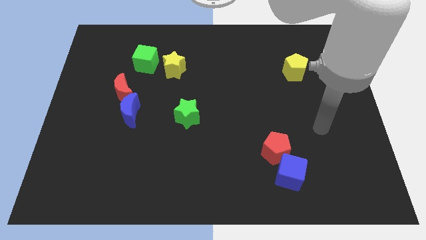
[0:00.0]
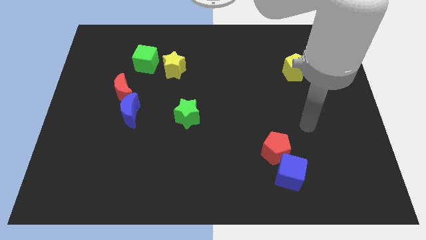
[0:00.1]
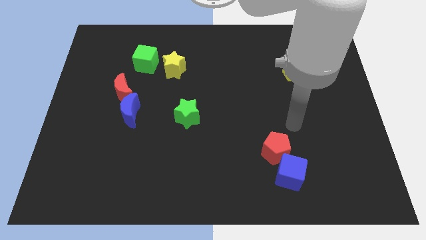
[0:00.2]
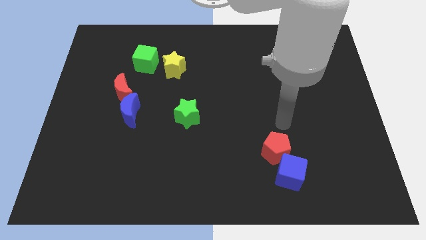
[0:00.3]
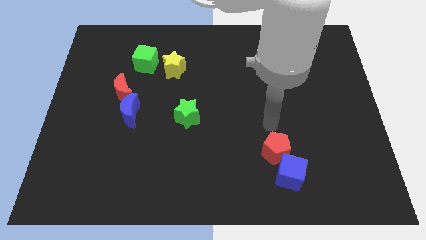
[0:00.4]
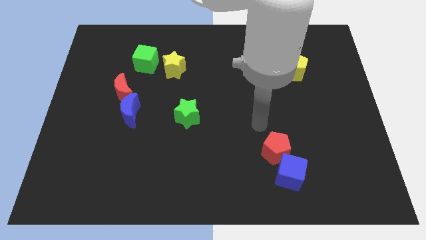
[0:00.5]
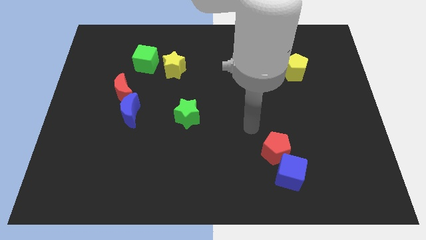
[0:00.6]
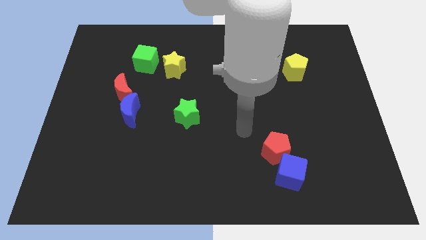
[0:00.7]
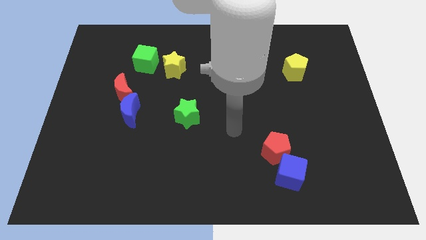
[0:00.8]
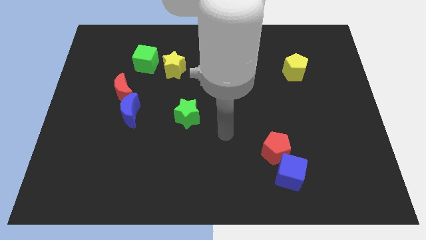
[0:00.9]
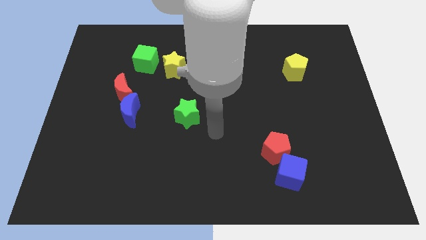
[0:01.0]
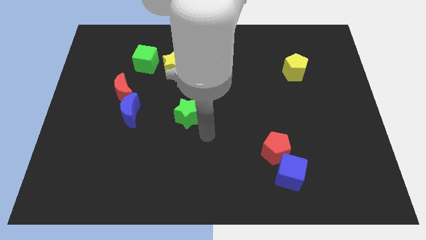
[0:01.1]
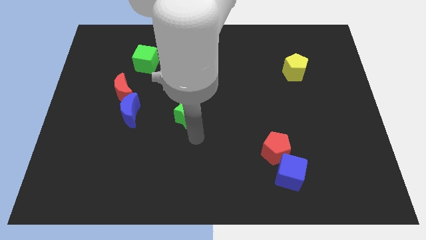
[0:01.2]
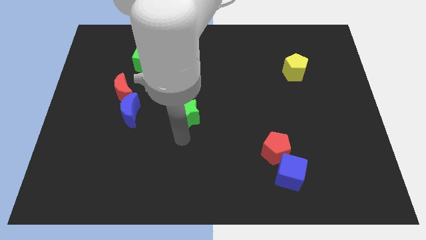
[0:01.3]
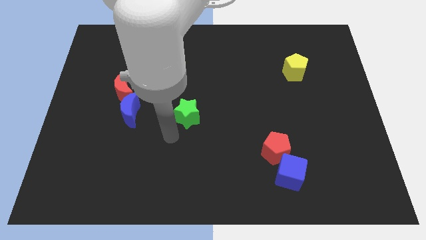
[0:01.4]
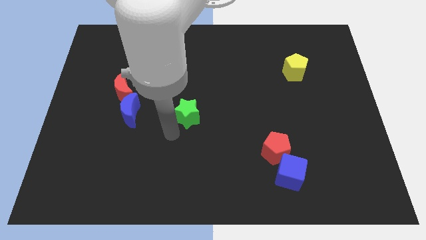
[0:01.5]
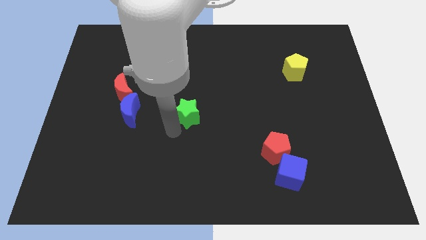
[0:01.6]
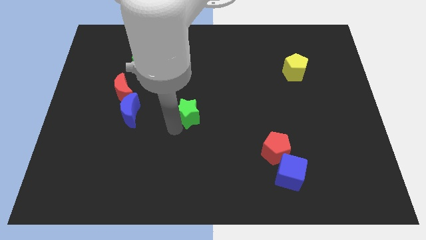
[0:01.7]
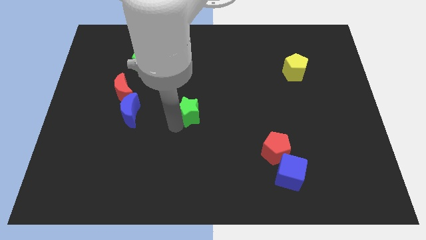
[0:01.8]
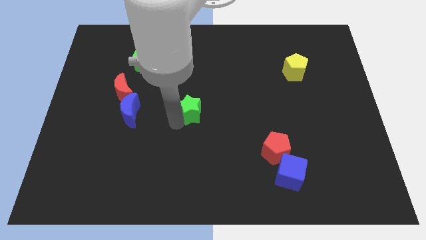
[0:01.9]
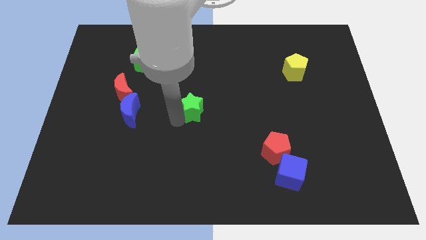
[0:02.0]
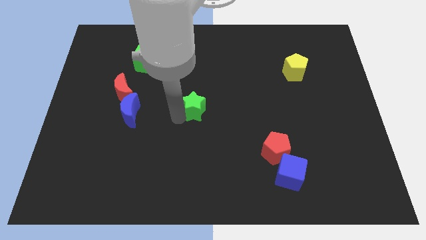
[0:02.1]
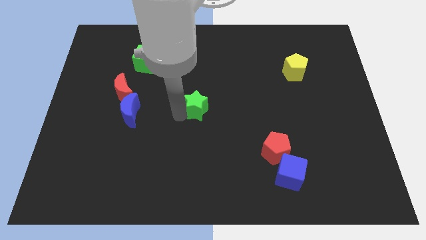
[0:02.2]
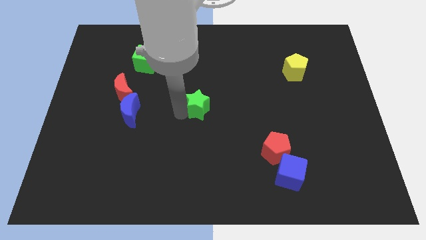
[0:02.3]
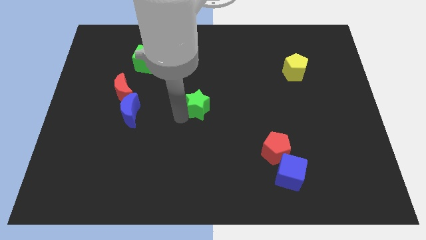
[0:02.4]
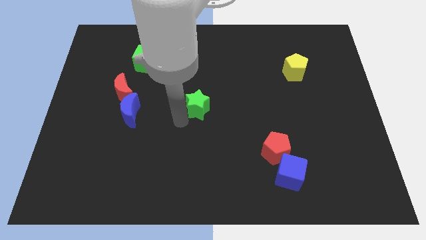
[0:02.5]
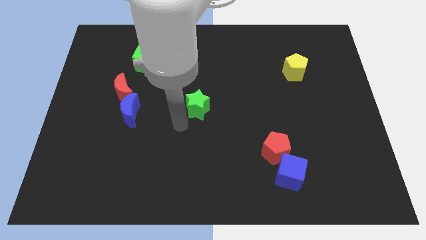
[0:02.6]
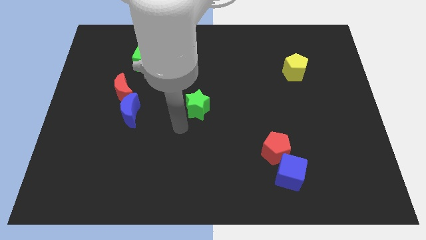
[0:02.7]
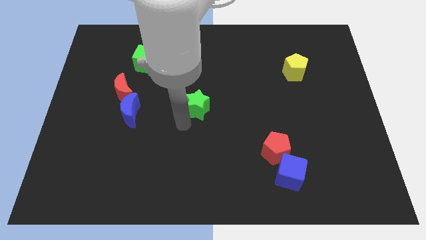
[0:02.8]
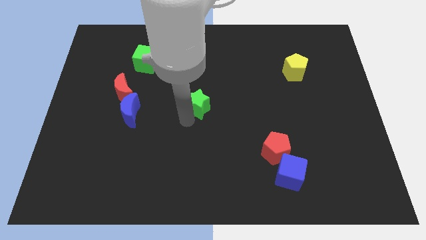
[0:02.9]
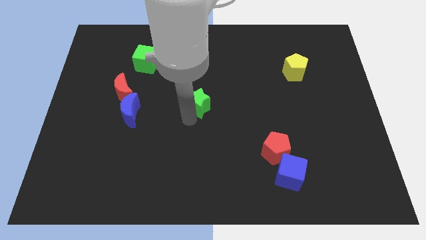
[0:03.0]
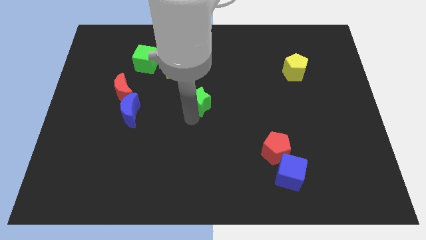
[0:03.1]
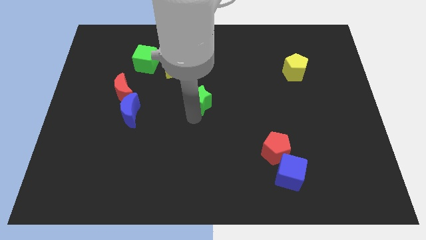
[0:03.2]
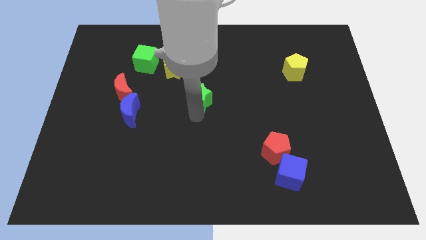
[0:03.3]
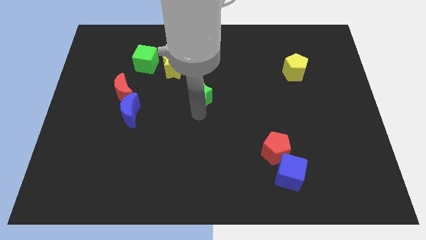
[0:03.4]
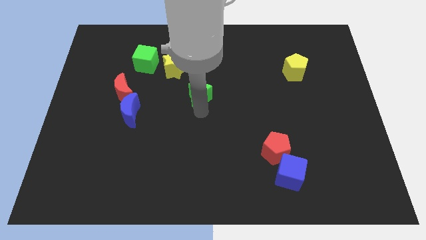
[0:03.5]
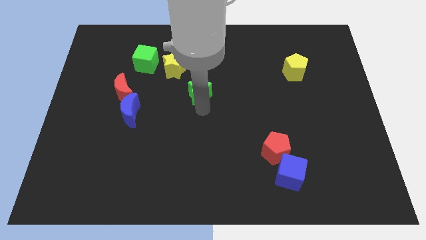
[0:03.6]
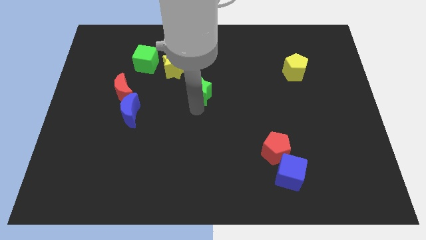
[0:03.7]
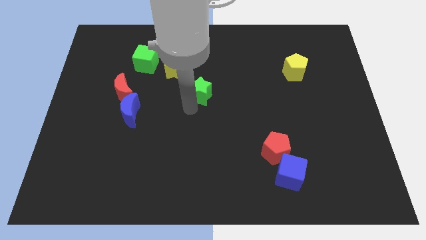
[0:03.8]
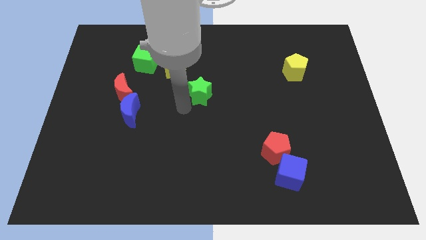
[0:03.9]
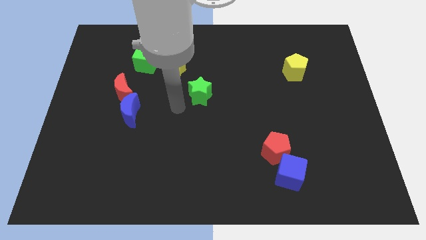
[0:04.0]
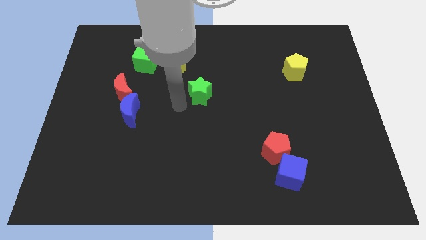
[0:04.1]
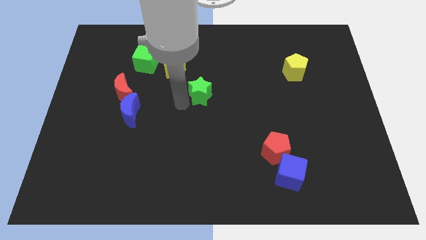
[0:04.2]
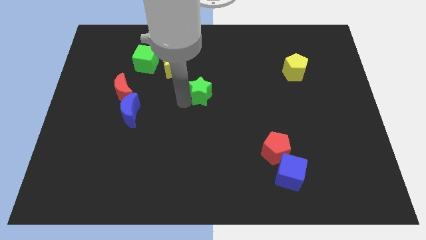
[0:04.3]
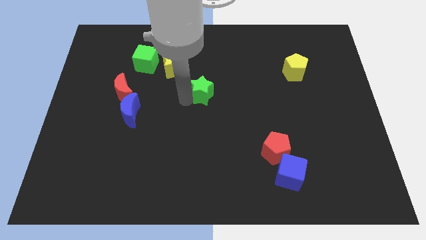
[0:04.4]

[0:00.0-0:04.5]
slightly move the green star up and right

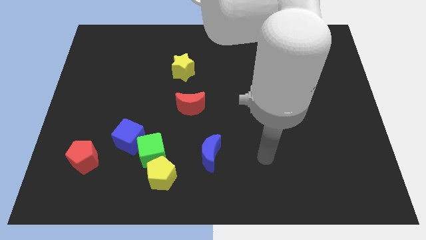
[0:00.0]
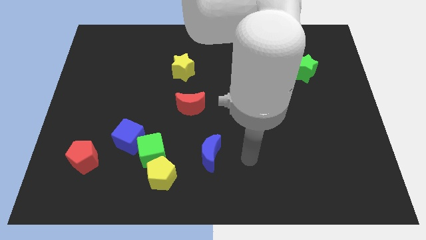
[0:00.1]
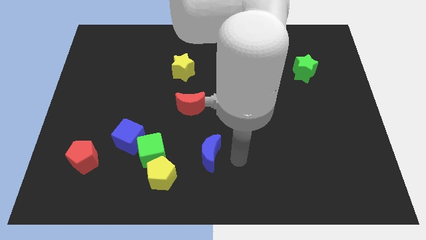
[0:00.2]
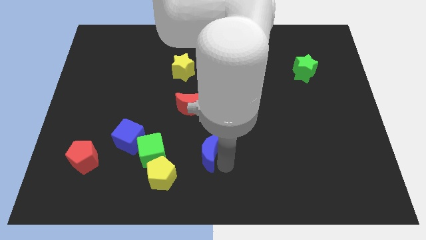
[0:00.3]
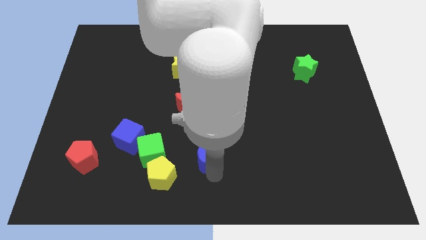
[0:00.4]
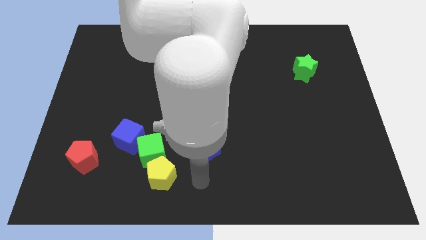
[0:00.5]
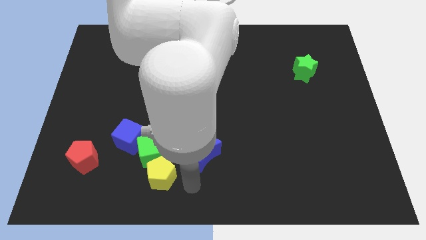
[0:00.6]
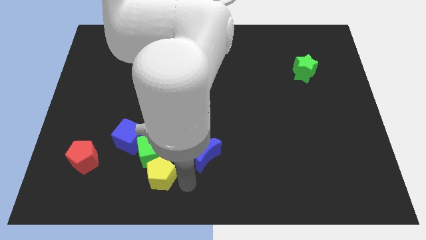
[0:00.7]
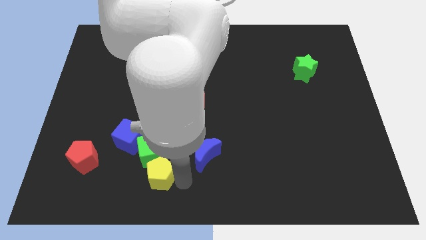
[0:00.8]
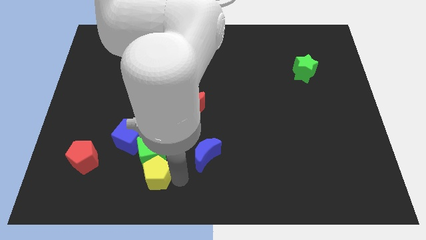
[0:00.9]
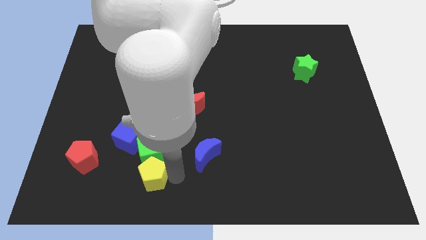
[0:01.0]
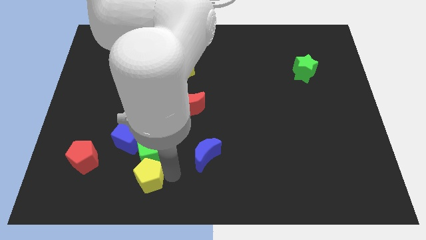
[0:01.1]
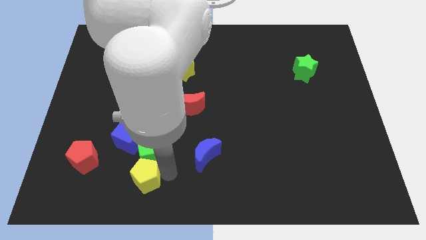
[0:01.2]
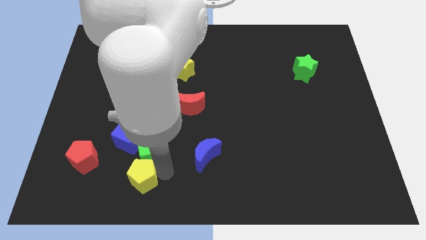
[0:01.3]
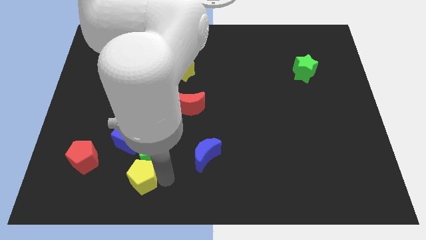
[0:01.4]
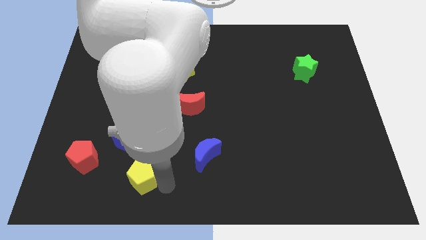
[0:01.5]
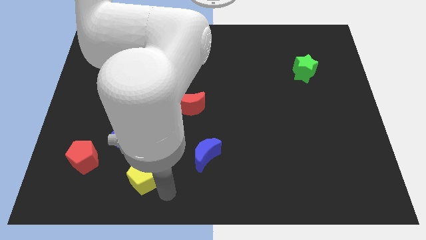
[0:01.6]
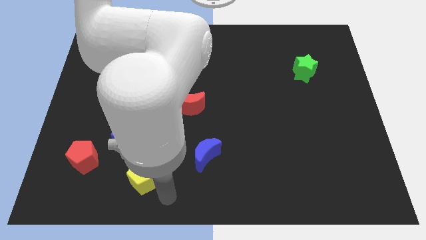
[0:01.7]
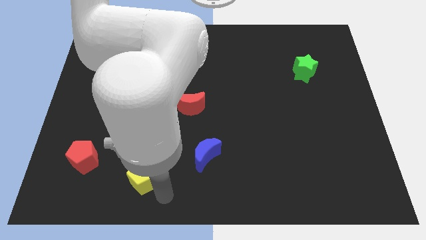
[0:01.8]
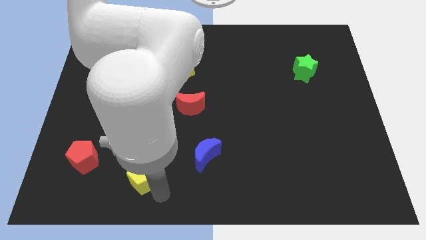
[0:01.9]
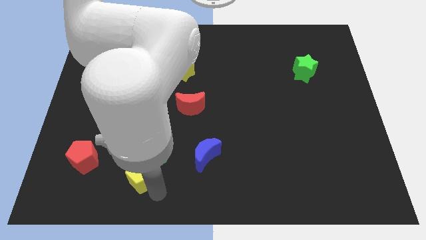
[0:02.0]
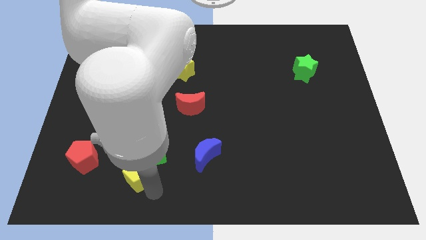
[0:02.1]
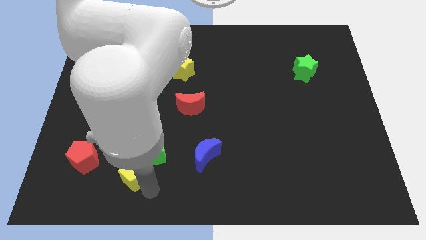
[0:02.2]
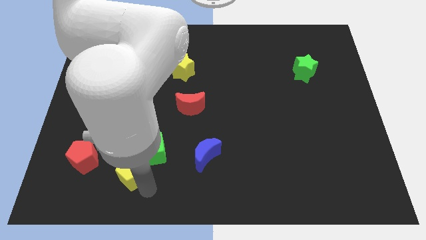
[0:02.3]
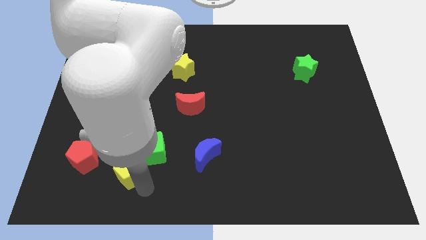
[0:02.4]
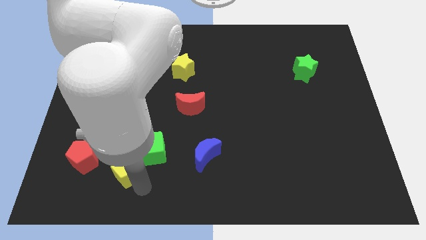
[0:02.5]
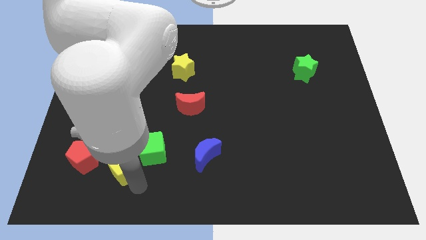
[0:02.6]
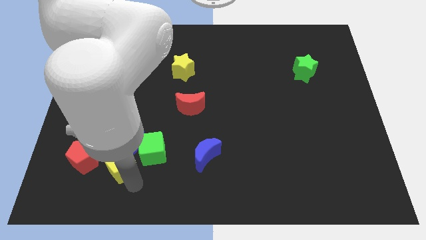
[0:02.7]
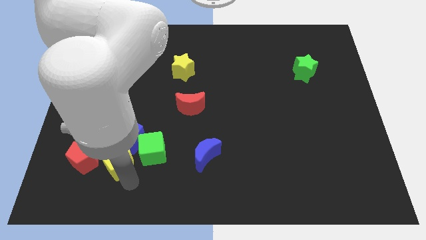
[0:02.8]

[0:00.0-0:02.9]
push the yellow pentagon somewhat up and to the left diagonally

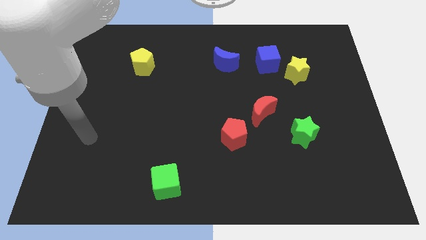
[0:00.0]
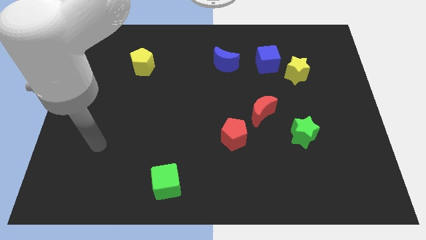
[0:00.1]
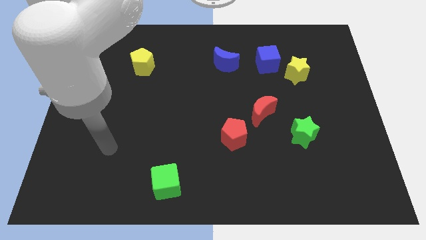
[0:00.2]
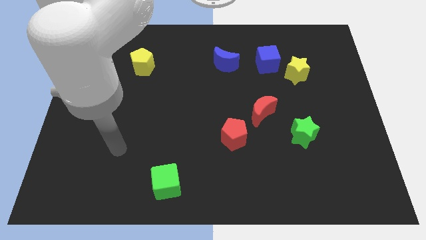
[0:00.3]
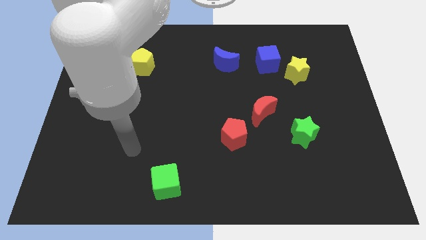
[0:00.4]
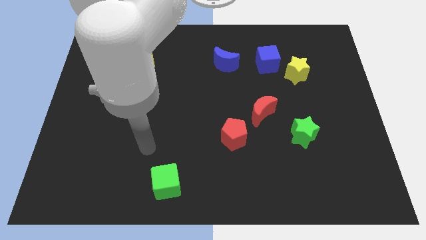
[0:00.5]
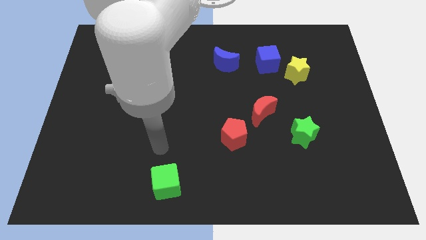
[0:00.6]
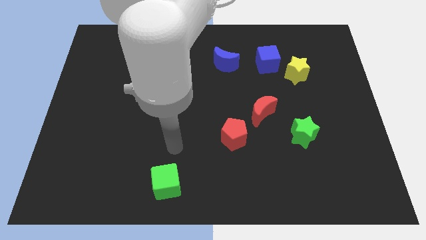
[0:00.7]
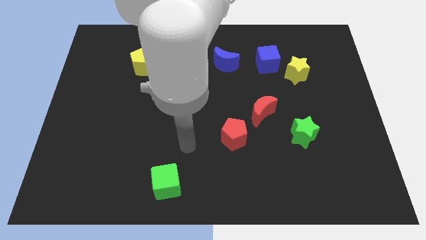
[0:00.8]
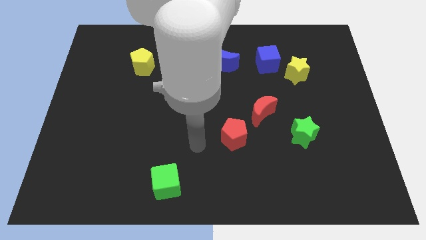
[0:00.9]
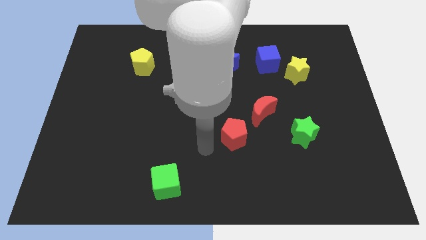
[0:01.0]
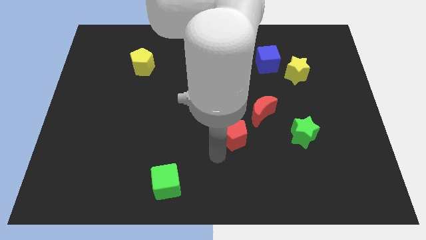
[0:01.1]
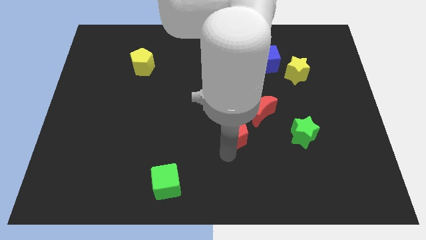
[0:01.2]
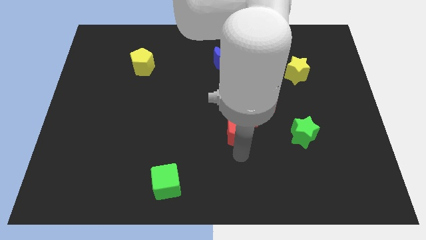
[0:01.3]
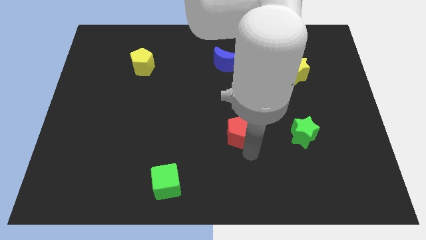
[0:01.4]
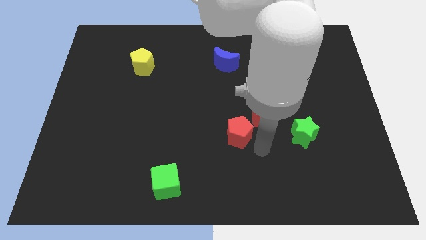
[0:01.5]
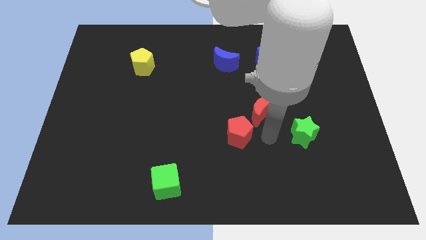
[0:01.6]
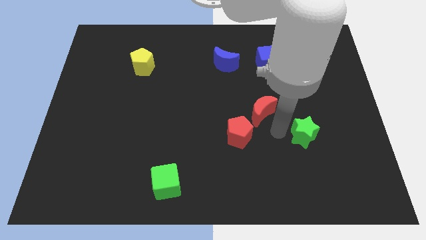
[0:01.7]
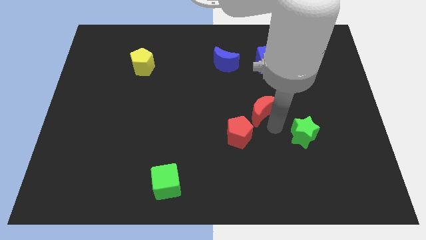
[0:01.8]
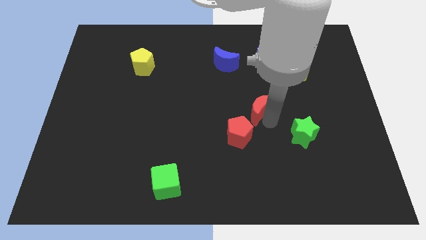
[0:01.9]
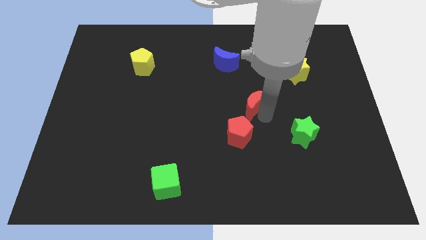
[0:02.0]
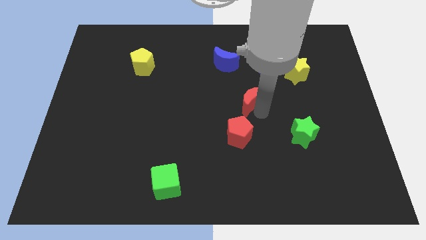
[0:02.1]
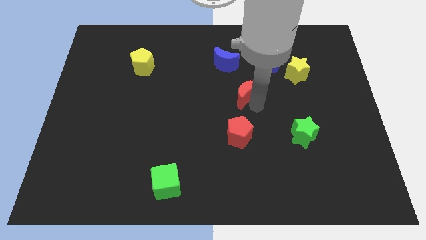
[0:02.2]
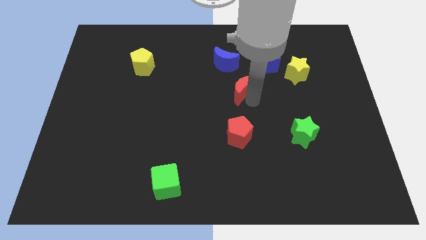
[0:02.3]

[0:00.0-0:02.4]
move the red moon up and left slightly
